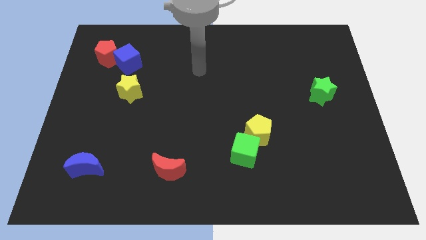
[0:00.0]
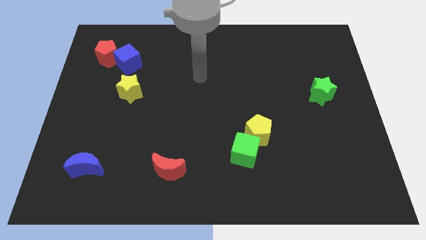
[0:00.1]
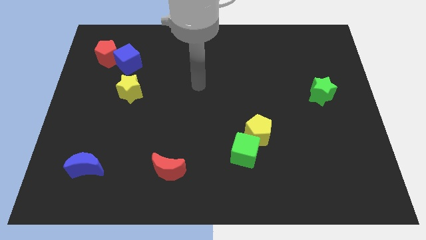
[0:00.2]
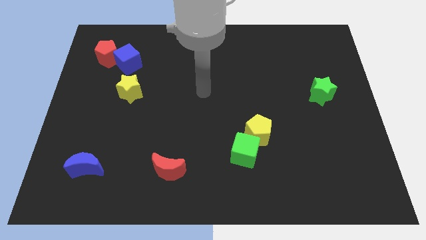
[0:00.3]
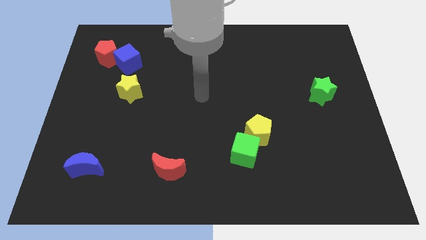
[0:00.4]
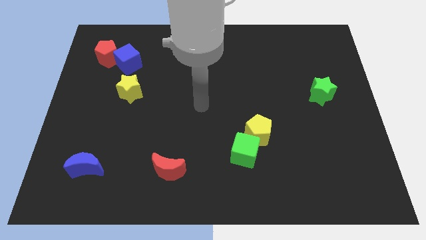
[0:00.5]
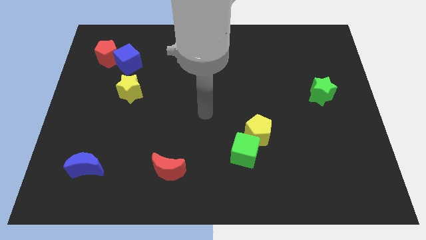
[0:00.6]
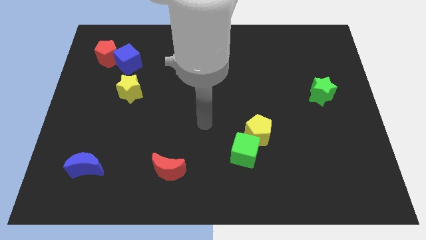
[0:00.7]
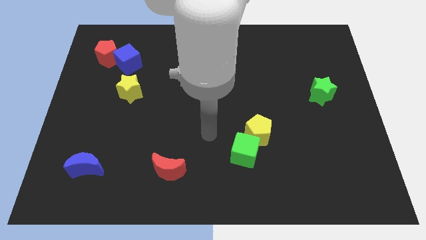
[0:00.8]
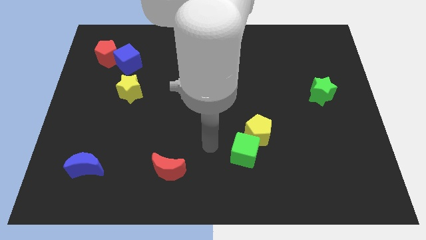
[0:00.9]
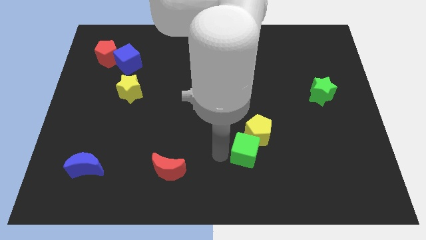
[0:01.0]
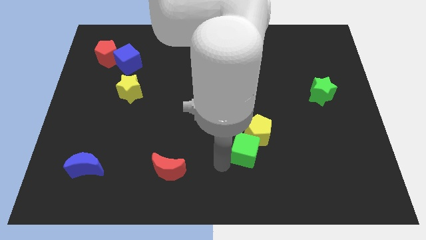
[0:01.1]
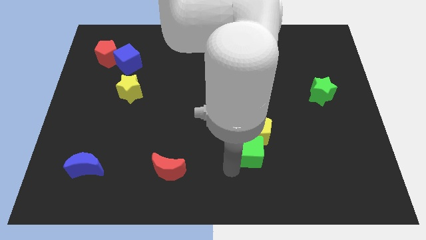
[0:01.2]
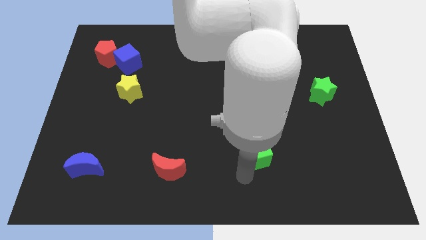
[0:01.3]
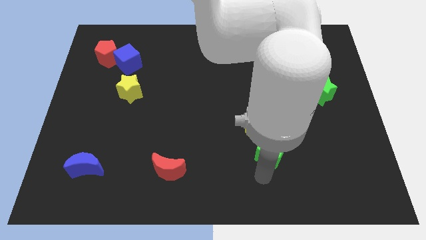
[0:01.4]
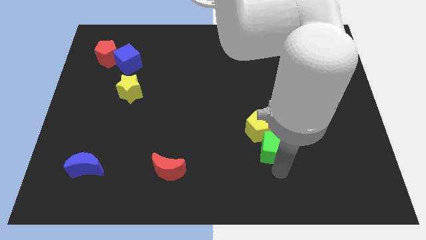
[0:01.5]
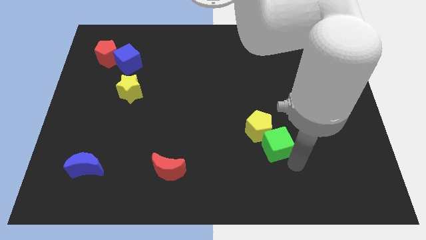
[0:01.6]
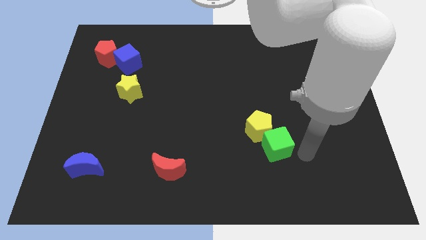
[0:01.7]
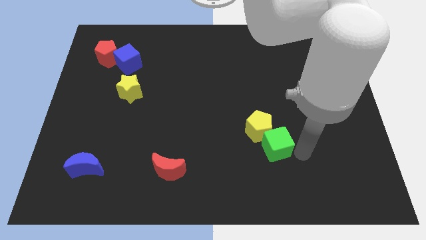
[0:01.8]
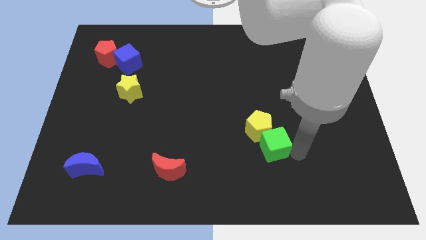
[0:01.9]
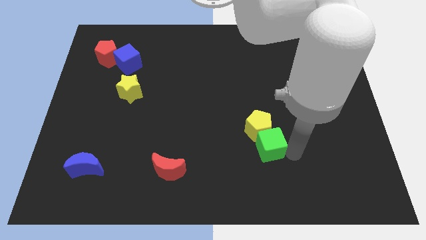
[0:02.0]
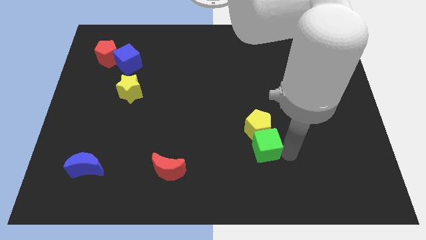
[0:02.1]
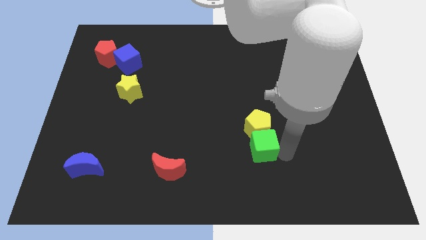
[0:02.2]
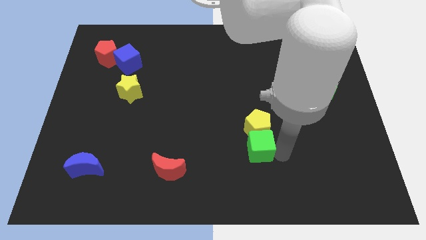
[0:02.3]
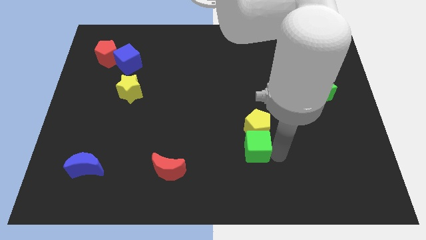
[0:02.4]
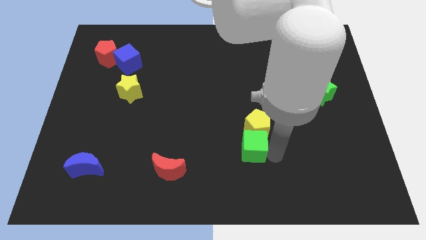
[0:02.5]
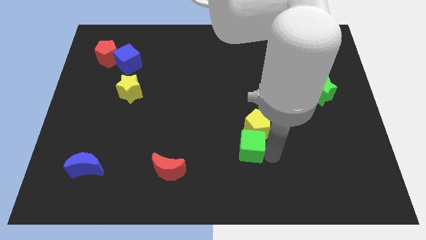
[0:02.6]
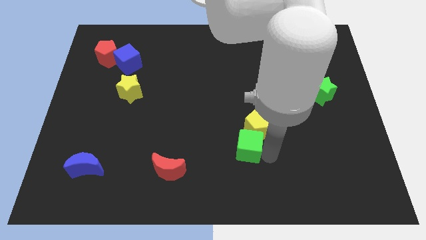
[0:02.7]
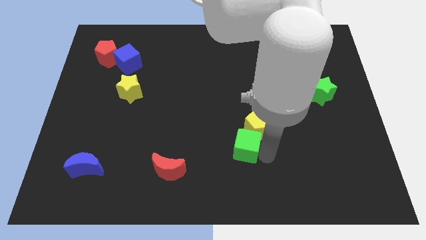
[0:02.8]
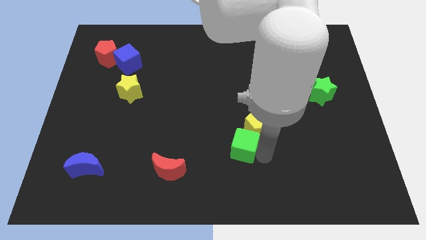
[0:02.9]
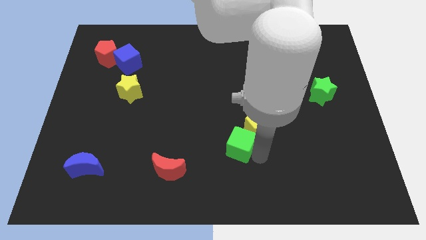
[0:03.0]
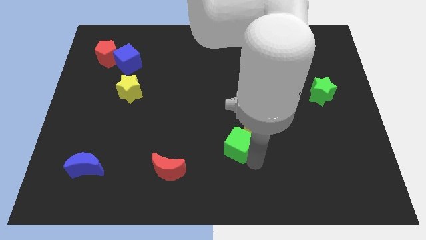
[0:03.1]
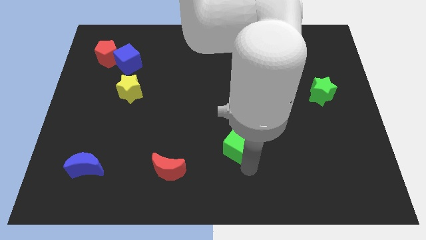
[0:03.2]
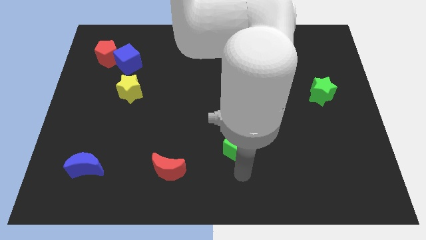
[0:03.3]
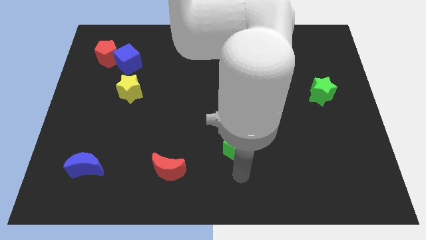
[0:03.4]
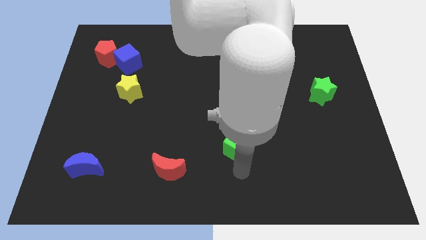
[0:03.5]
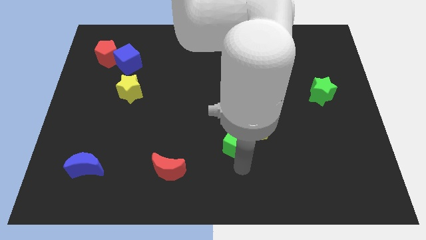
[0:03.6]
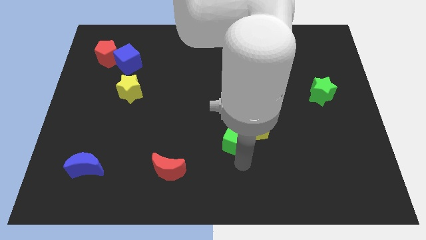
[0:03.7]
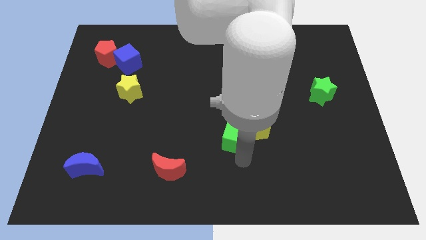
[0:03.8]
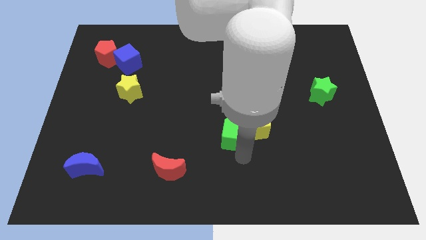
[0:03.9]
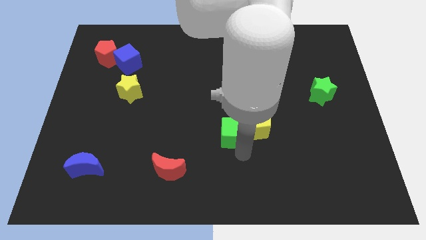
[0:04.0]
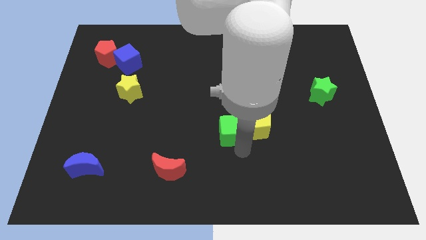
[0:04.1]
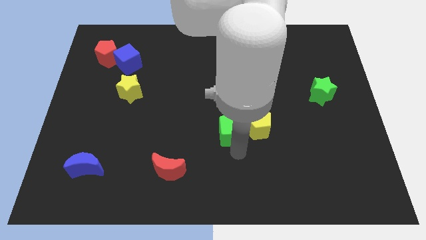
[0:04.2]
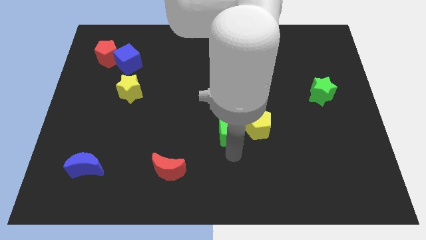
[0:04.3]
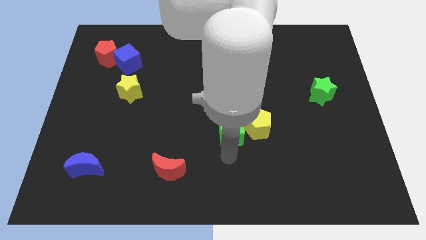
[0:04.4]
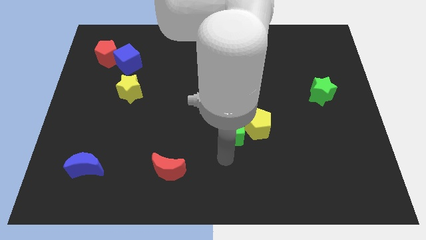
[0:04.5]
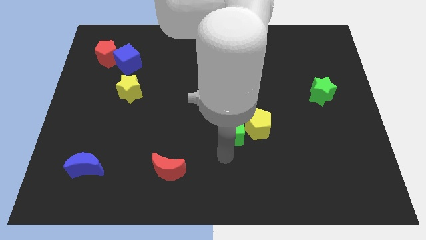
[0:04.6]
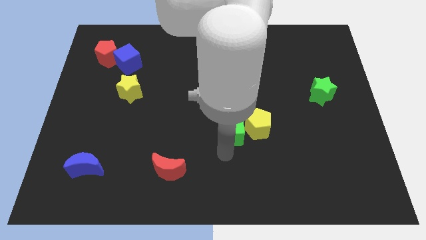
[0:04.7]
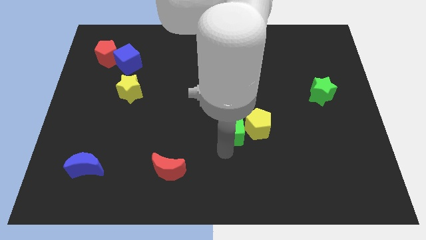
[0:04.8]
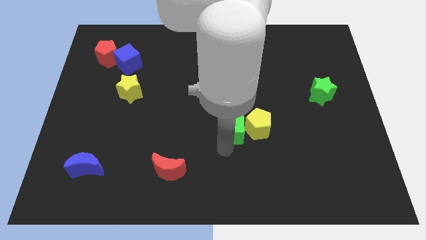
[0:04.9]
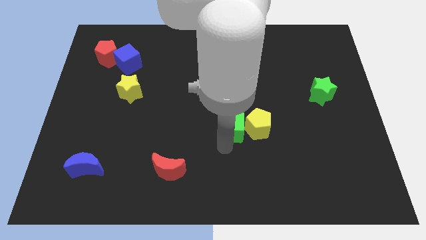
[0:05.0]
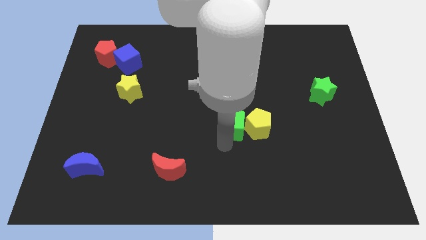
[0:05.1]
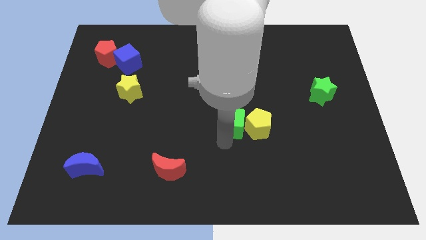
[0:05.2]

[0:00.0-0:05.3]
slightly push the green cube up

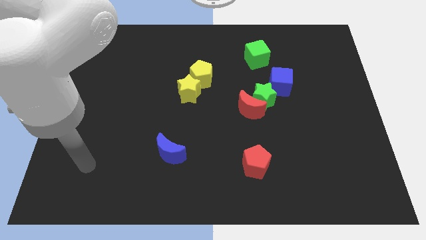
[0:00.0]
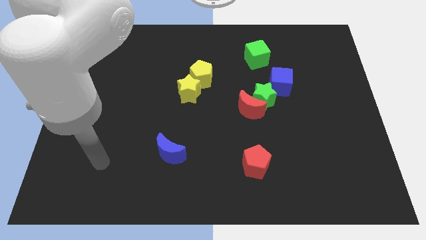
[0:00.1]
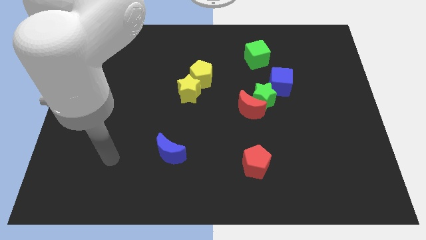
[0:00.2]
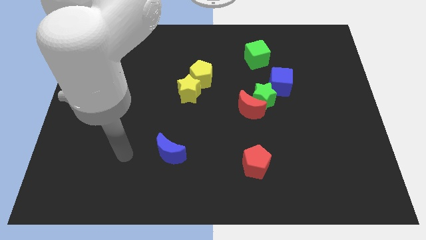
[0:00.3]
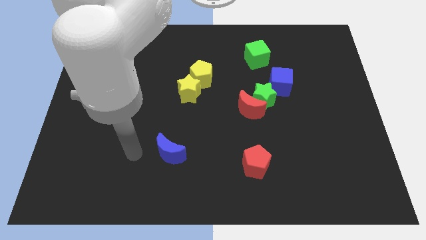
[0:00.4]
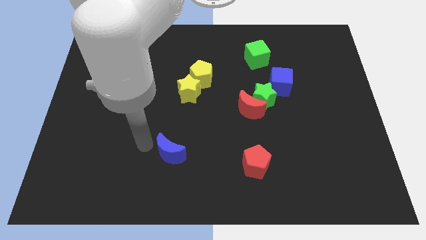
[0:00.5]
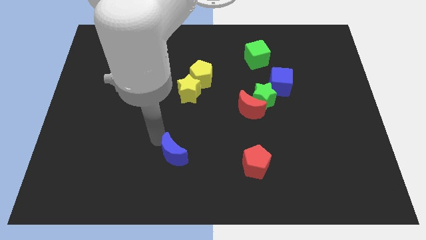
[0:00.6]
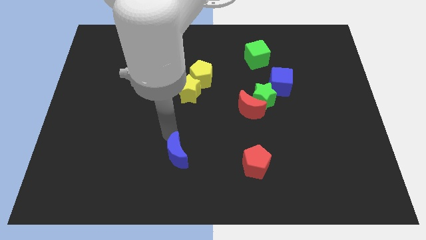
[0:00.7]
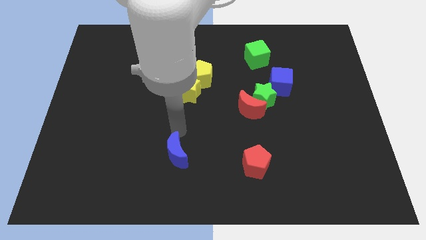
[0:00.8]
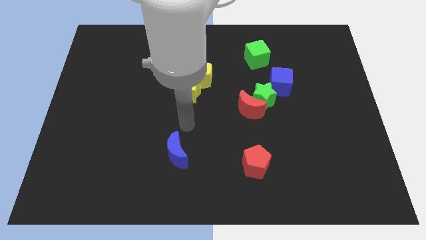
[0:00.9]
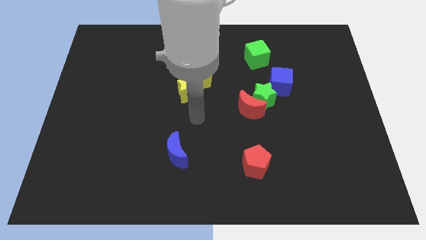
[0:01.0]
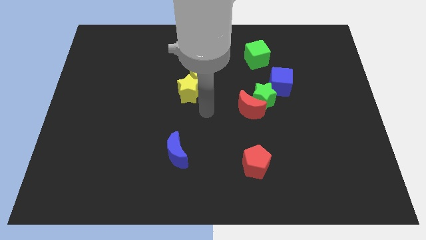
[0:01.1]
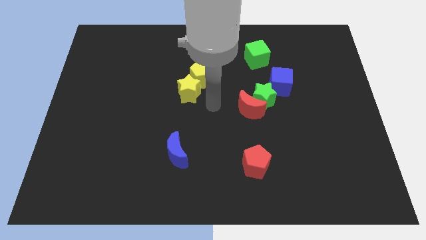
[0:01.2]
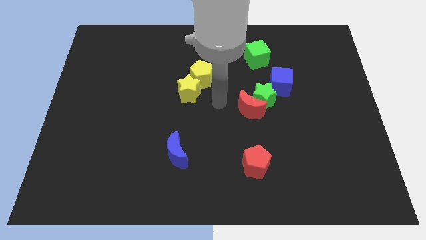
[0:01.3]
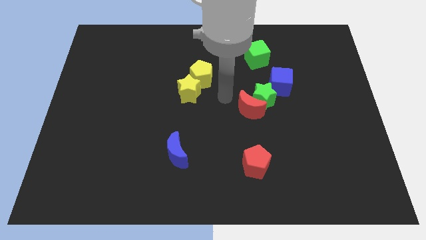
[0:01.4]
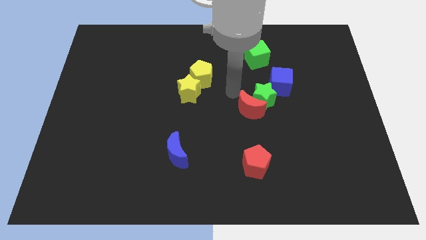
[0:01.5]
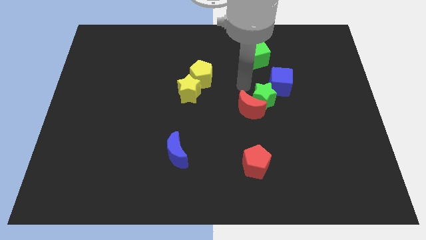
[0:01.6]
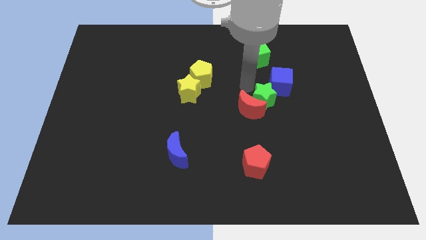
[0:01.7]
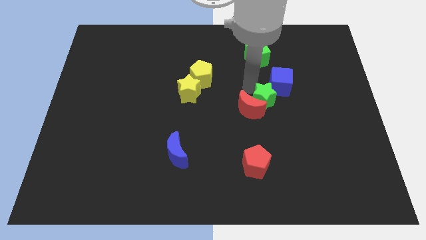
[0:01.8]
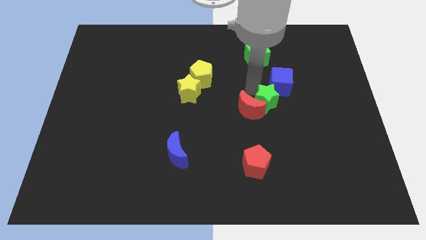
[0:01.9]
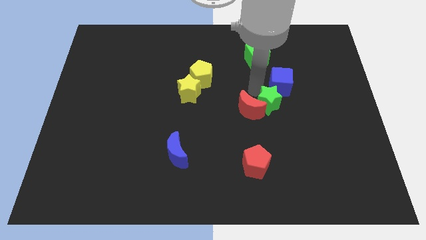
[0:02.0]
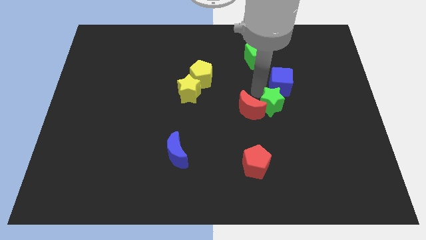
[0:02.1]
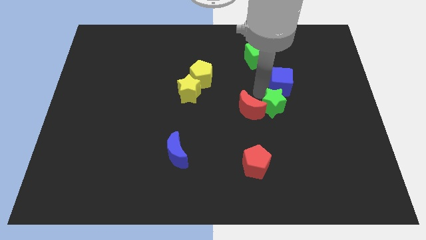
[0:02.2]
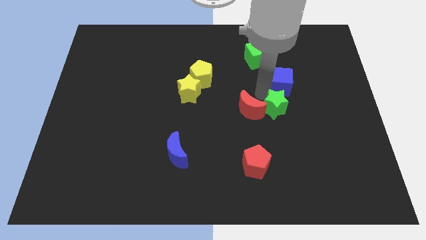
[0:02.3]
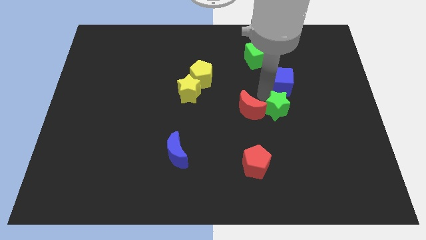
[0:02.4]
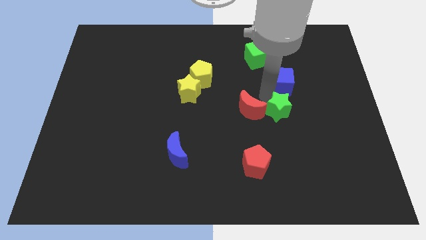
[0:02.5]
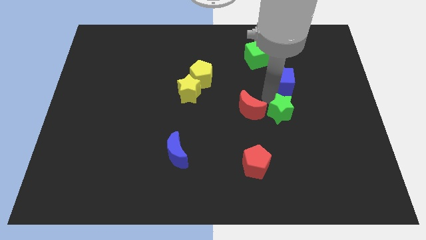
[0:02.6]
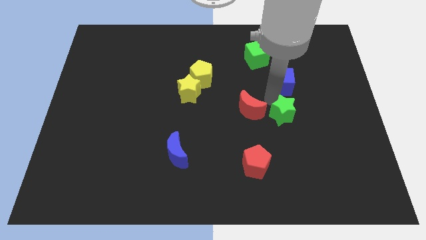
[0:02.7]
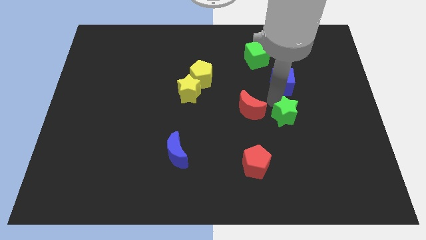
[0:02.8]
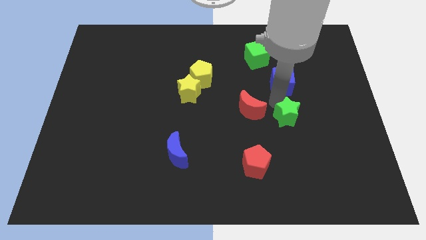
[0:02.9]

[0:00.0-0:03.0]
slide the green star a little bit down and to the right
